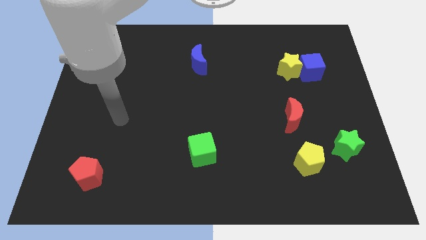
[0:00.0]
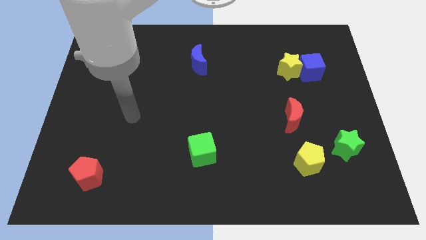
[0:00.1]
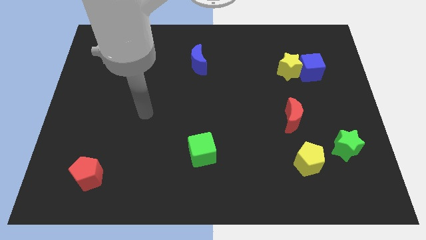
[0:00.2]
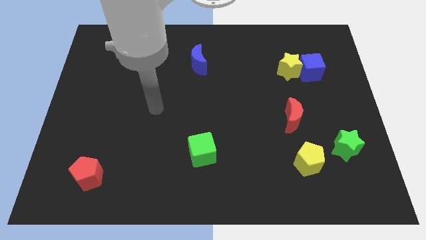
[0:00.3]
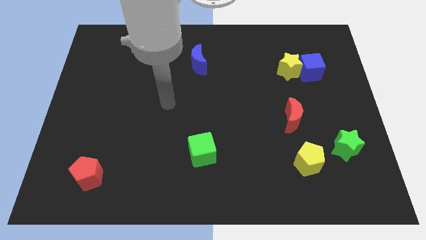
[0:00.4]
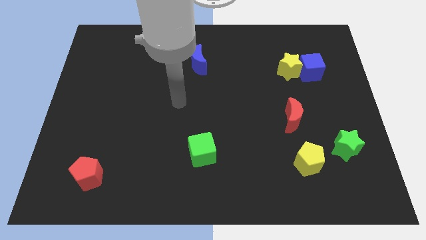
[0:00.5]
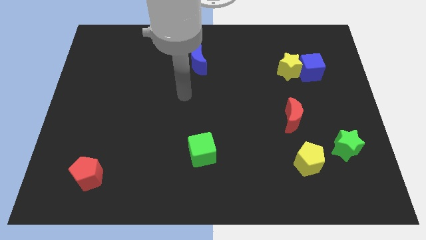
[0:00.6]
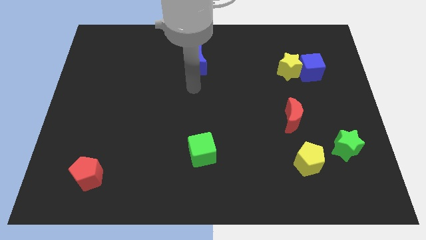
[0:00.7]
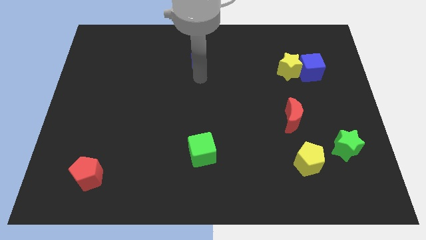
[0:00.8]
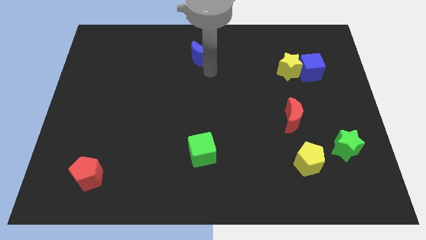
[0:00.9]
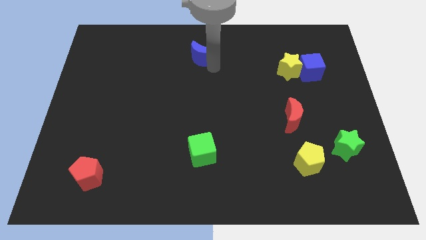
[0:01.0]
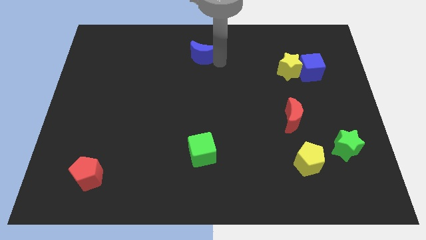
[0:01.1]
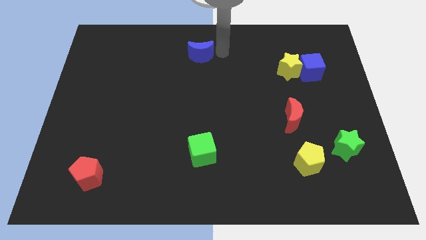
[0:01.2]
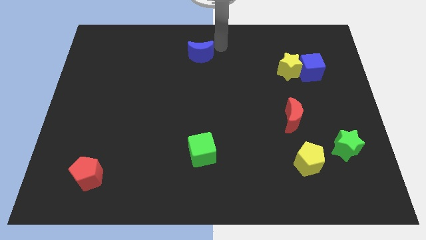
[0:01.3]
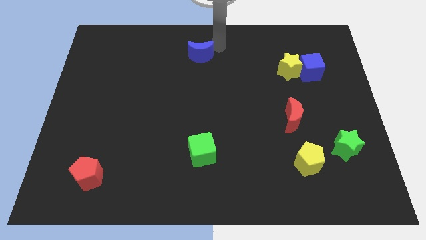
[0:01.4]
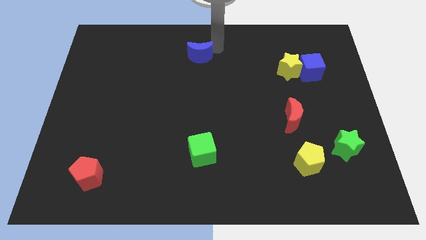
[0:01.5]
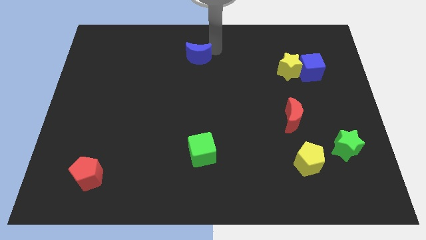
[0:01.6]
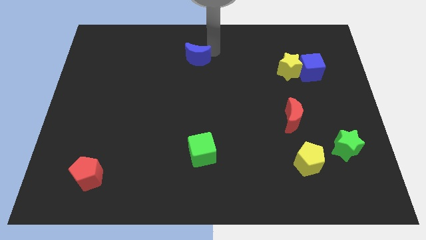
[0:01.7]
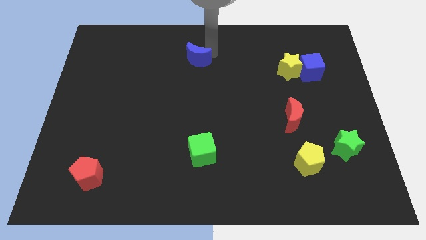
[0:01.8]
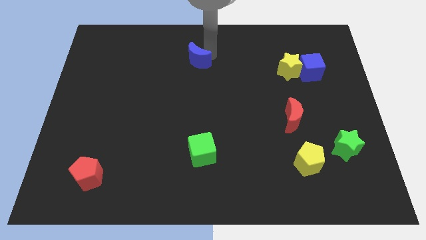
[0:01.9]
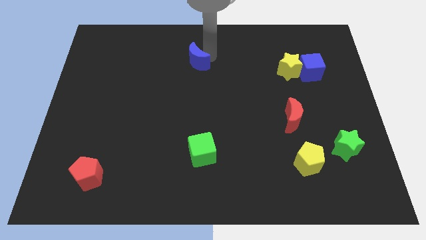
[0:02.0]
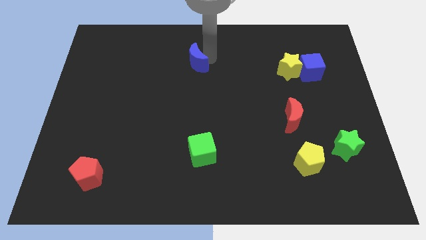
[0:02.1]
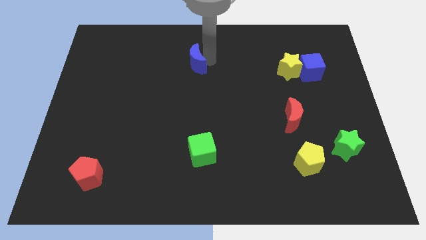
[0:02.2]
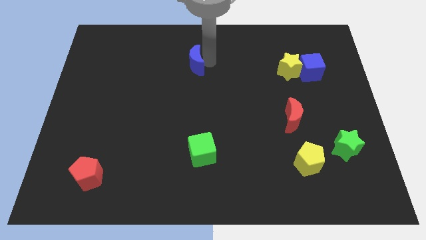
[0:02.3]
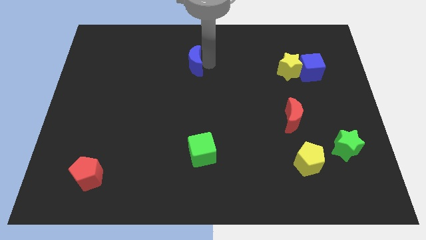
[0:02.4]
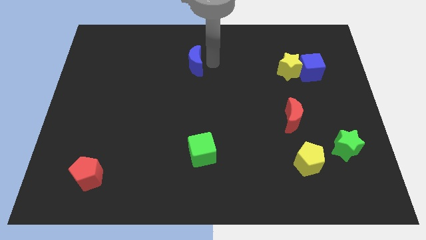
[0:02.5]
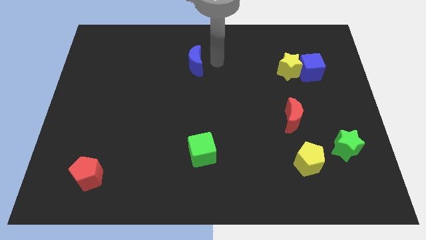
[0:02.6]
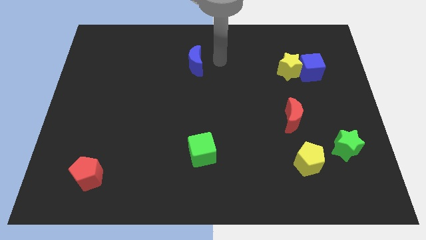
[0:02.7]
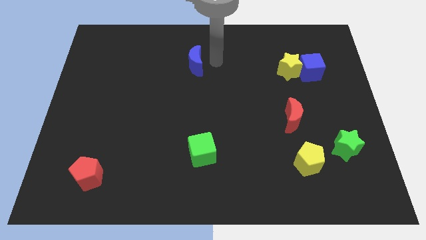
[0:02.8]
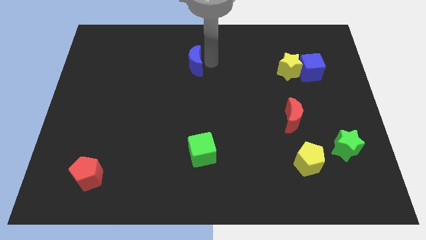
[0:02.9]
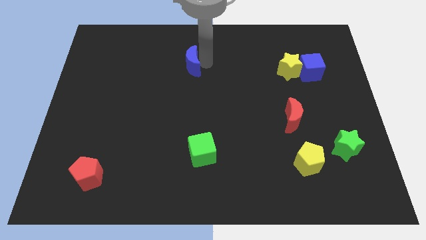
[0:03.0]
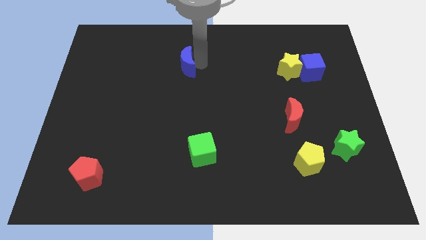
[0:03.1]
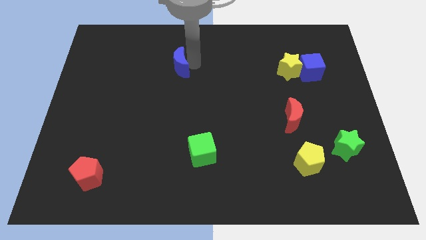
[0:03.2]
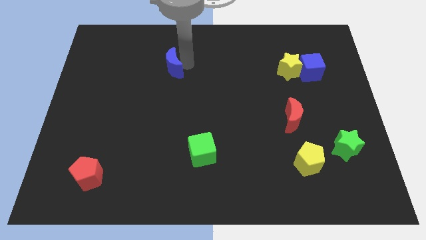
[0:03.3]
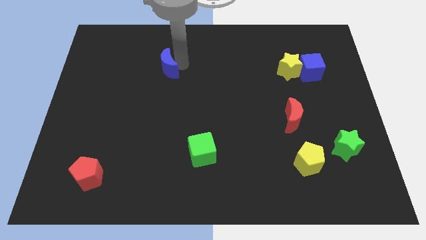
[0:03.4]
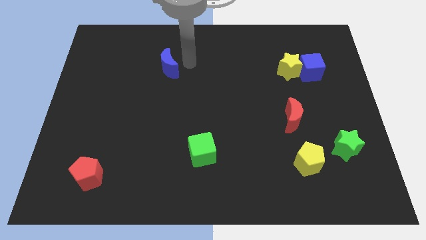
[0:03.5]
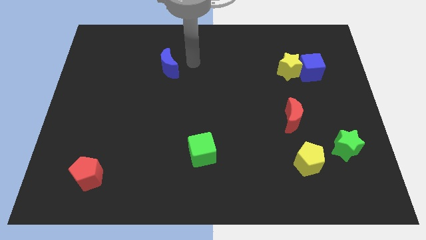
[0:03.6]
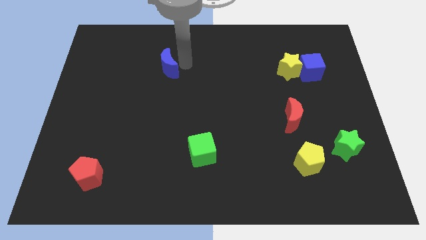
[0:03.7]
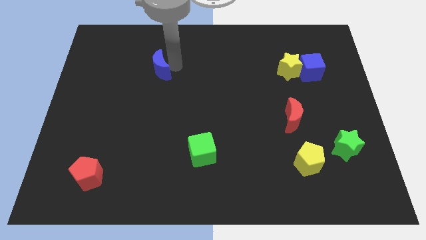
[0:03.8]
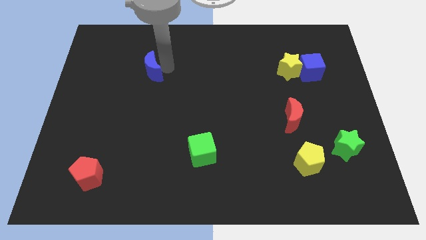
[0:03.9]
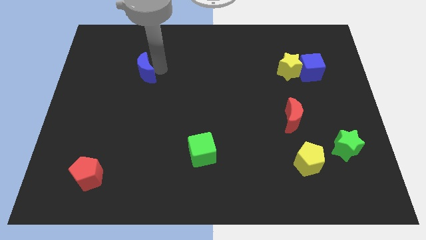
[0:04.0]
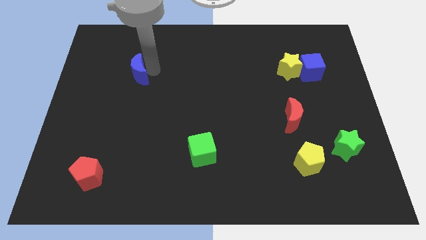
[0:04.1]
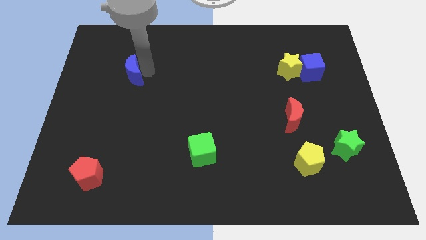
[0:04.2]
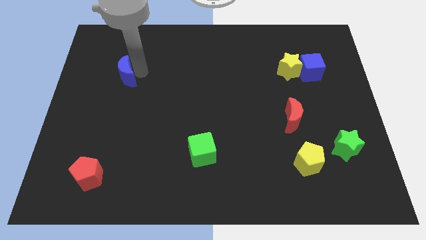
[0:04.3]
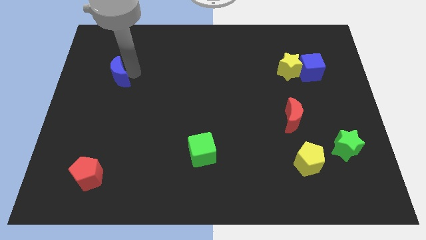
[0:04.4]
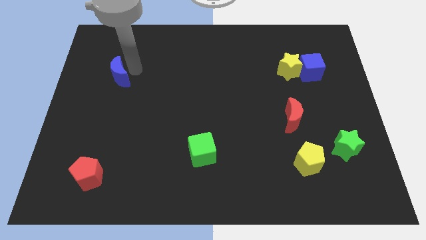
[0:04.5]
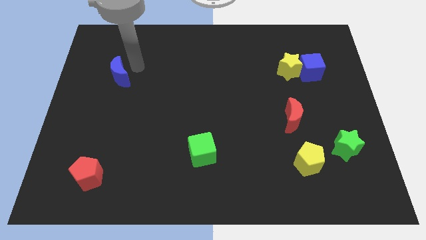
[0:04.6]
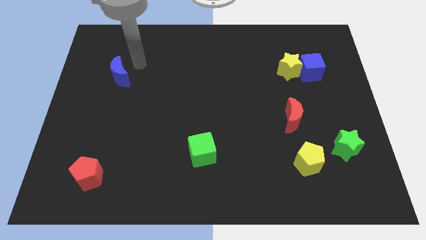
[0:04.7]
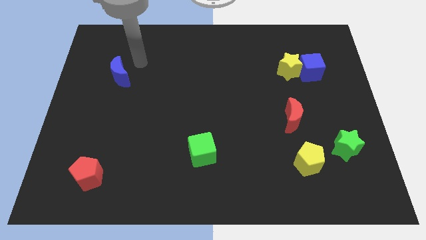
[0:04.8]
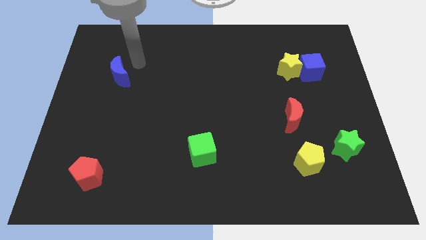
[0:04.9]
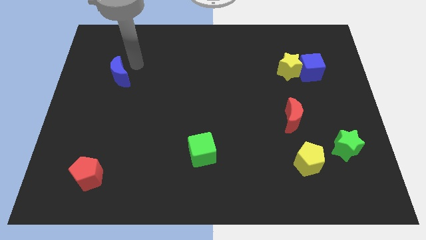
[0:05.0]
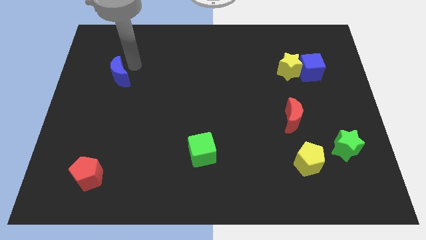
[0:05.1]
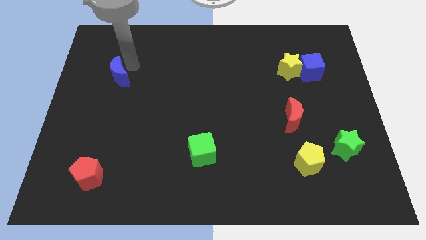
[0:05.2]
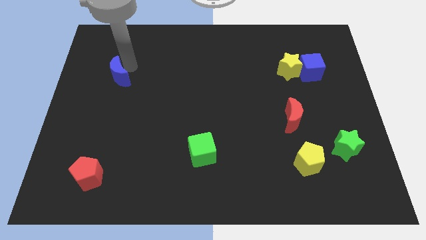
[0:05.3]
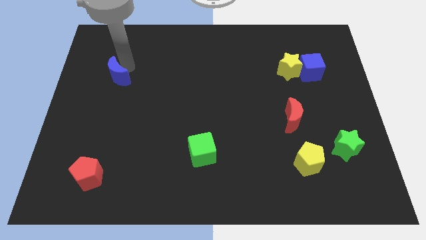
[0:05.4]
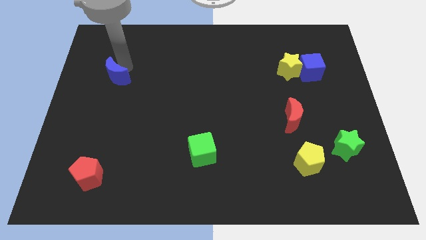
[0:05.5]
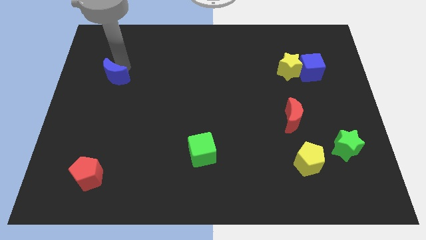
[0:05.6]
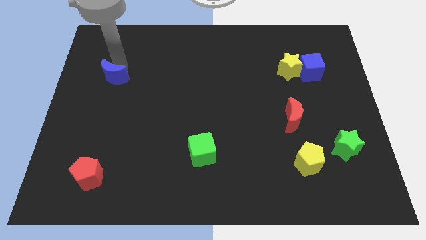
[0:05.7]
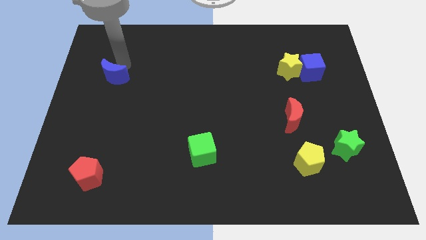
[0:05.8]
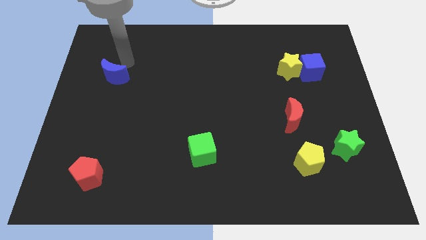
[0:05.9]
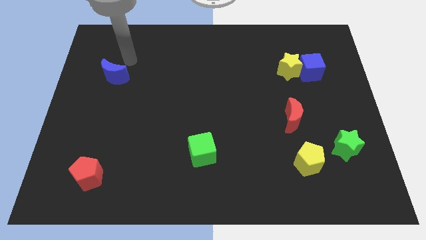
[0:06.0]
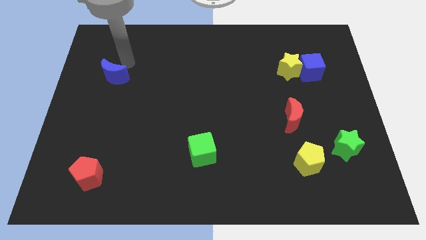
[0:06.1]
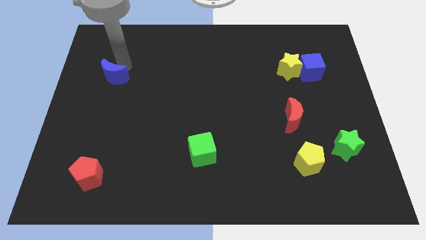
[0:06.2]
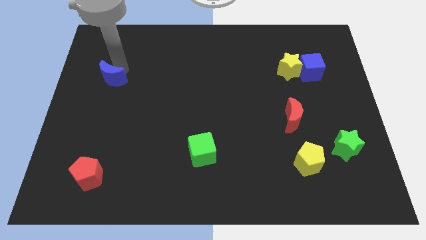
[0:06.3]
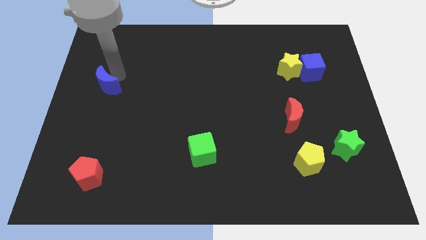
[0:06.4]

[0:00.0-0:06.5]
put the blue moon to the left side

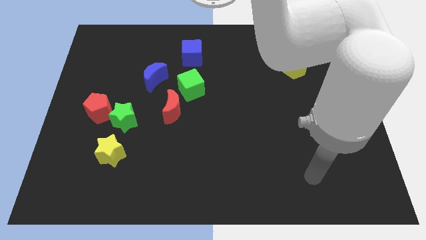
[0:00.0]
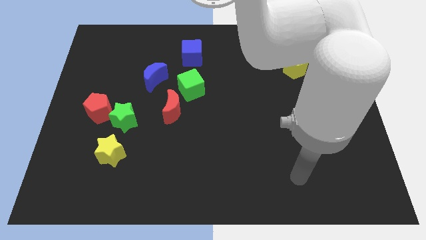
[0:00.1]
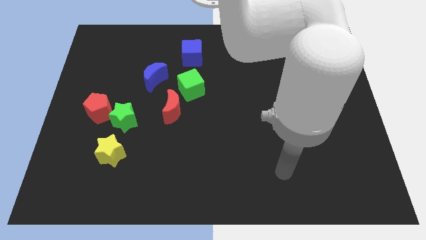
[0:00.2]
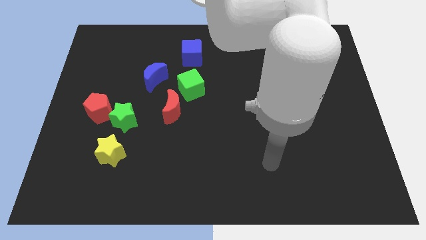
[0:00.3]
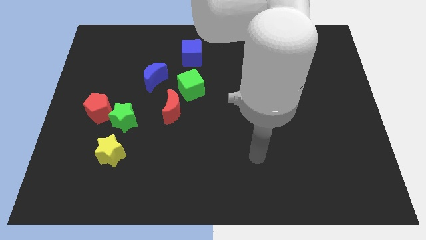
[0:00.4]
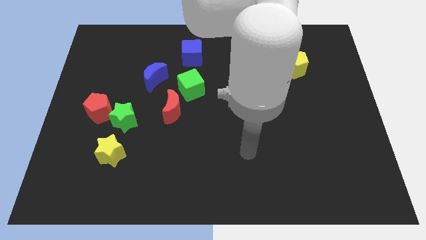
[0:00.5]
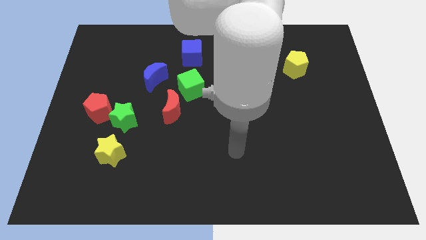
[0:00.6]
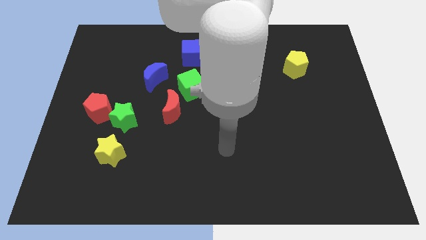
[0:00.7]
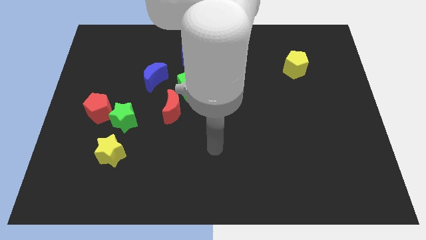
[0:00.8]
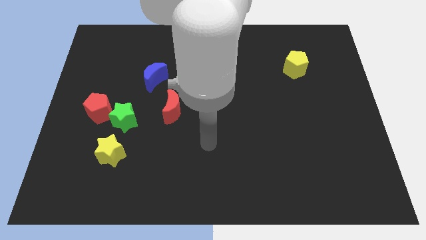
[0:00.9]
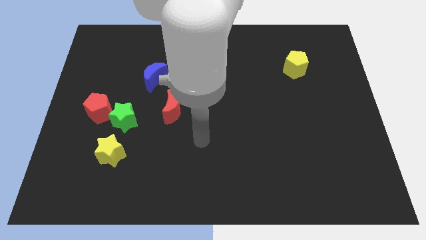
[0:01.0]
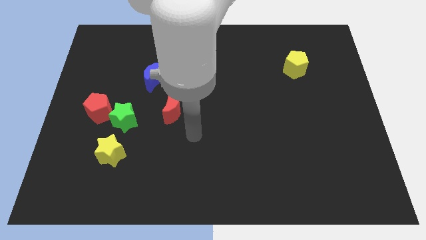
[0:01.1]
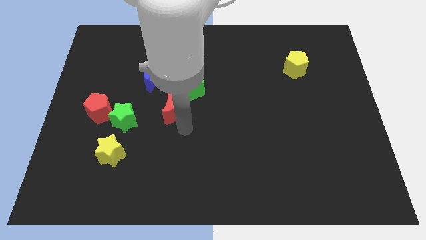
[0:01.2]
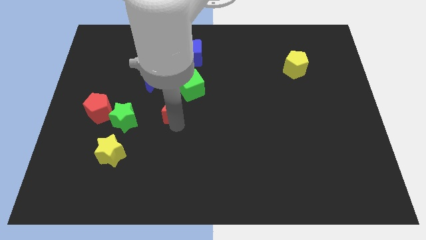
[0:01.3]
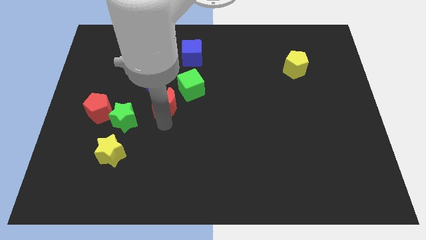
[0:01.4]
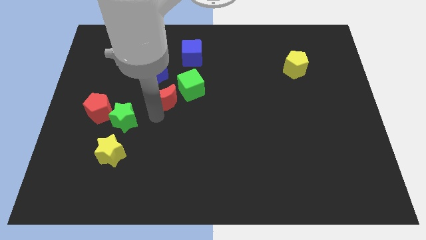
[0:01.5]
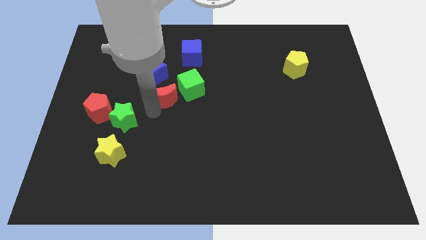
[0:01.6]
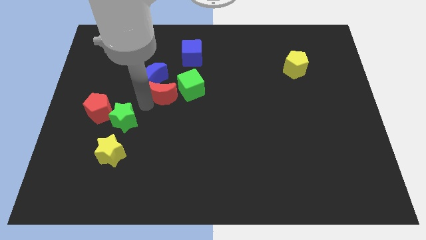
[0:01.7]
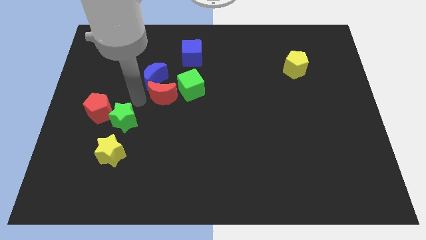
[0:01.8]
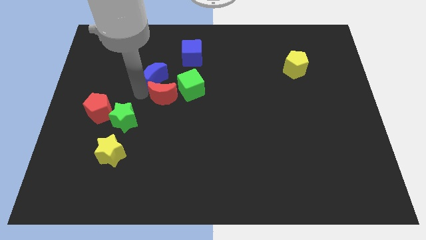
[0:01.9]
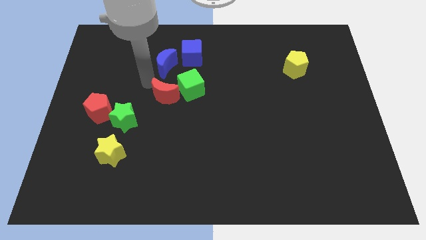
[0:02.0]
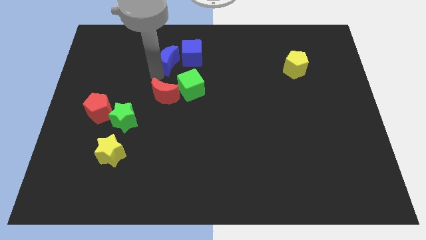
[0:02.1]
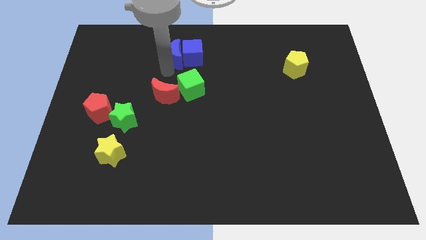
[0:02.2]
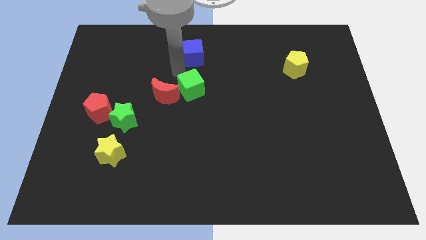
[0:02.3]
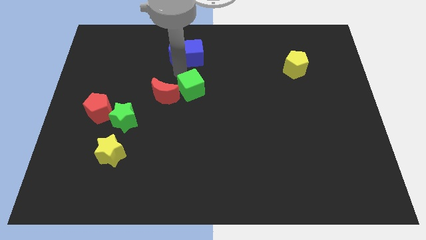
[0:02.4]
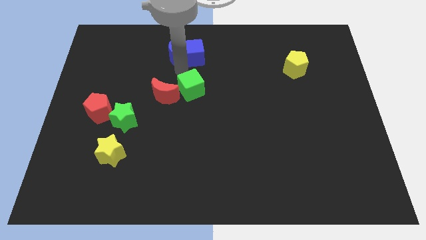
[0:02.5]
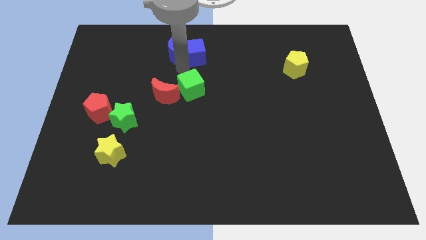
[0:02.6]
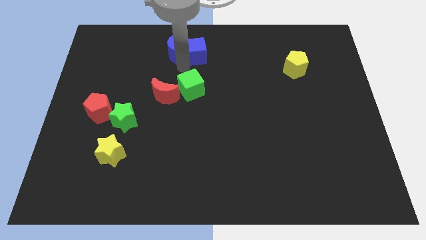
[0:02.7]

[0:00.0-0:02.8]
put the blue cube to the towards your base
